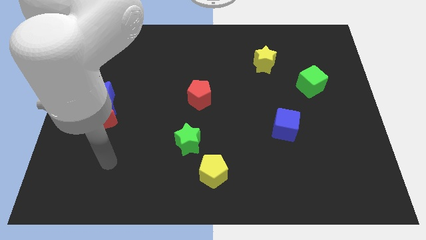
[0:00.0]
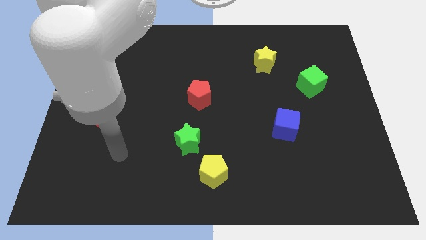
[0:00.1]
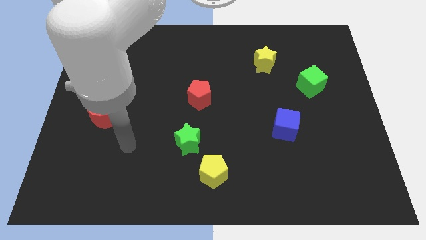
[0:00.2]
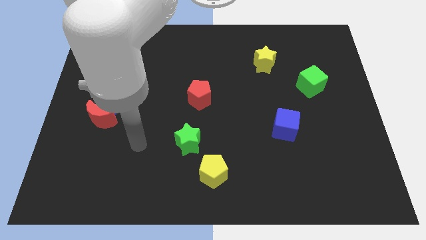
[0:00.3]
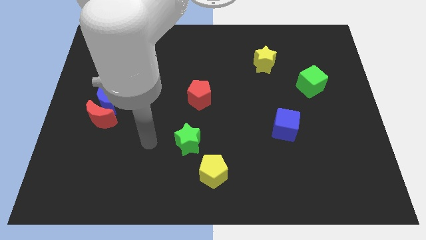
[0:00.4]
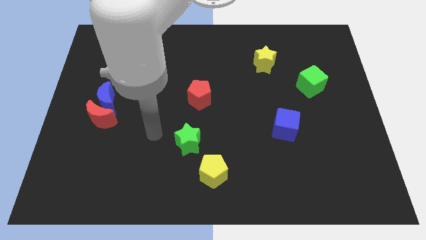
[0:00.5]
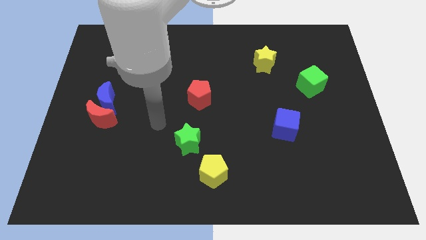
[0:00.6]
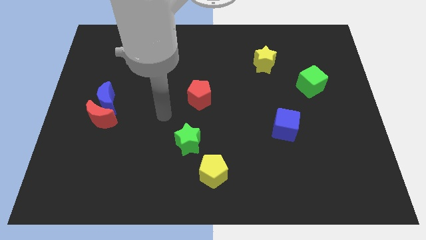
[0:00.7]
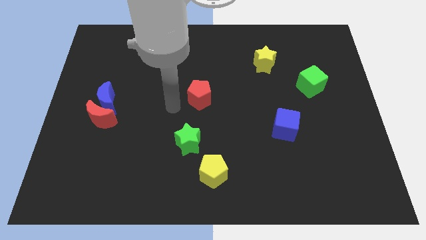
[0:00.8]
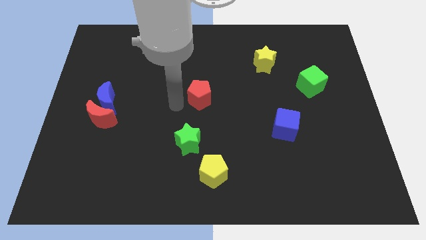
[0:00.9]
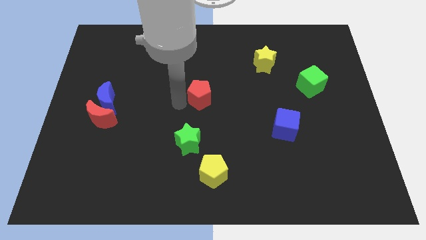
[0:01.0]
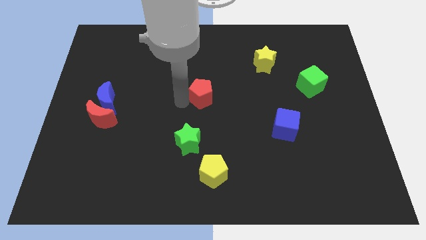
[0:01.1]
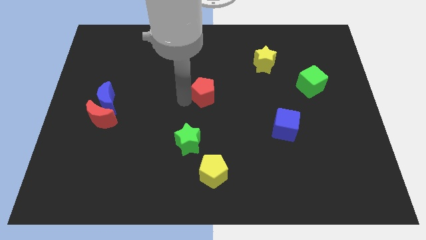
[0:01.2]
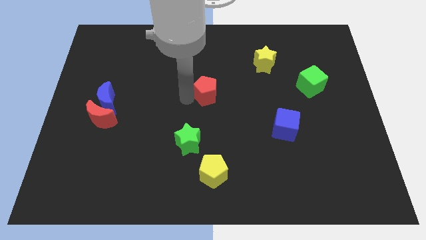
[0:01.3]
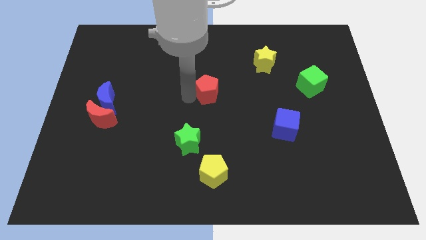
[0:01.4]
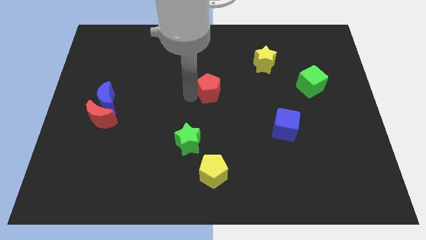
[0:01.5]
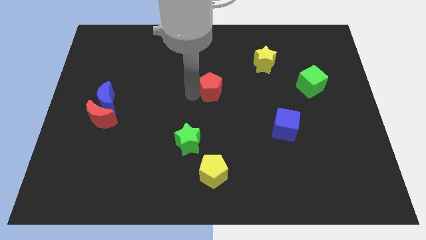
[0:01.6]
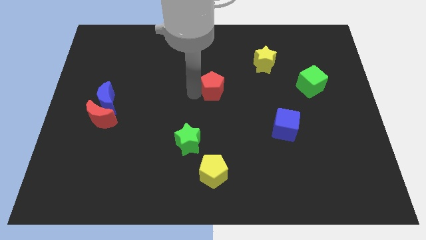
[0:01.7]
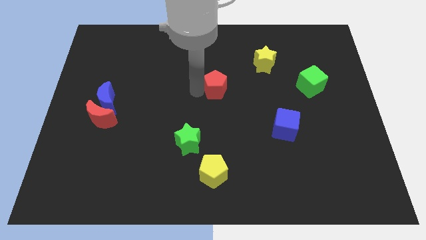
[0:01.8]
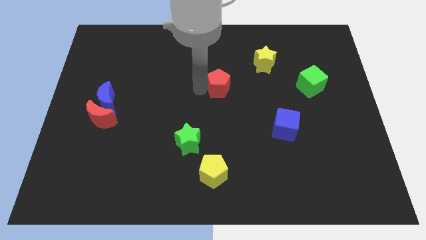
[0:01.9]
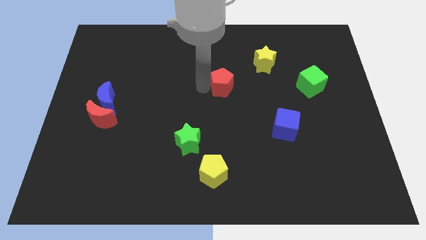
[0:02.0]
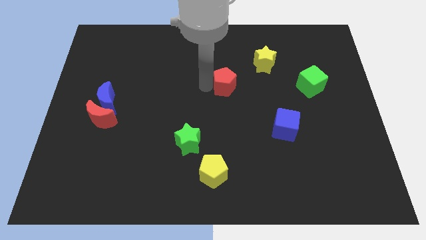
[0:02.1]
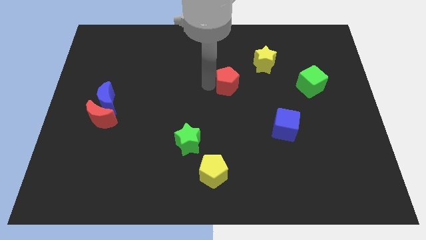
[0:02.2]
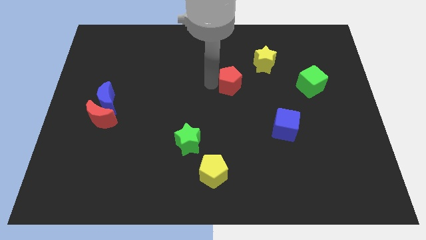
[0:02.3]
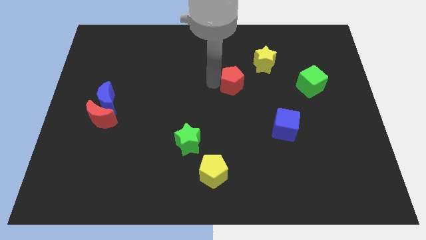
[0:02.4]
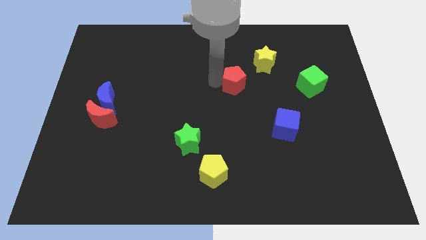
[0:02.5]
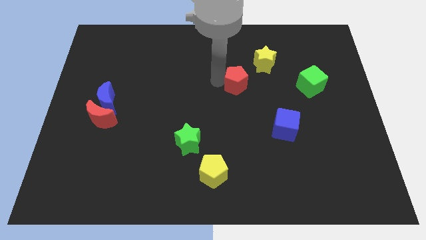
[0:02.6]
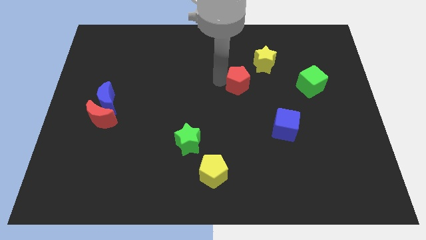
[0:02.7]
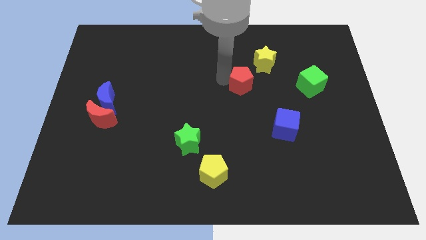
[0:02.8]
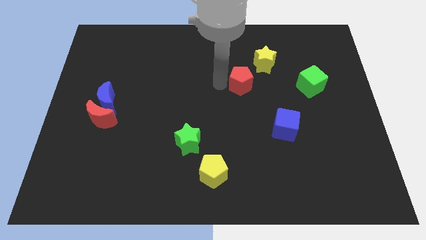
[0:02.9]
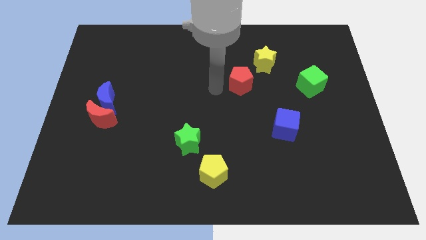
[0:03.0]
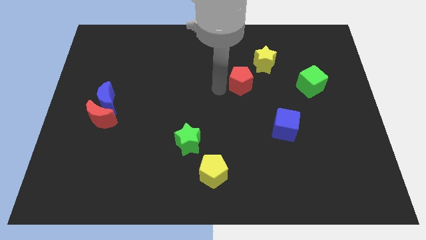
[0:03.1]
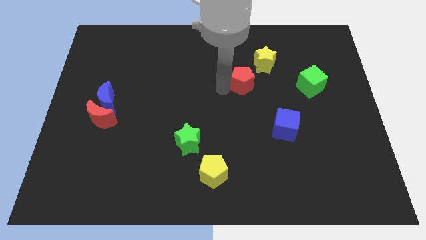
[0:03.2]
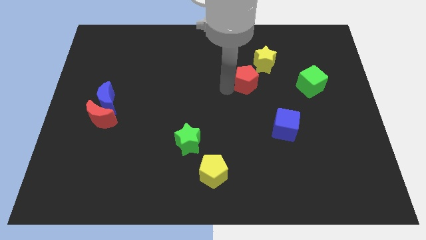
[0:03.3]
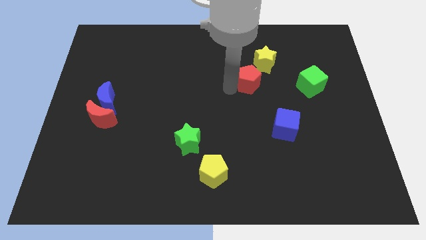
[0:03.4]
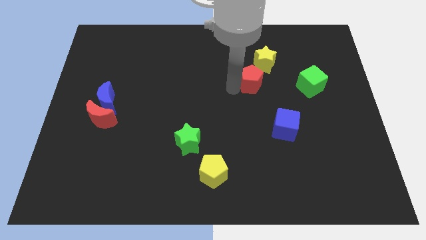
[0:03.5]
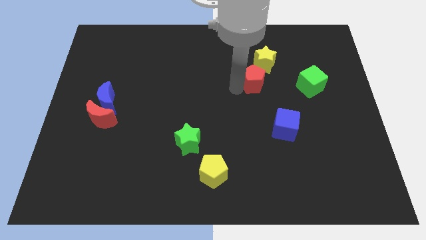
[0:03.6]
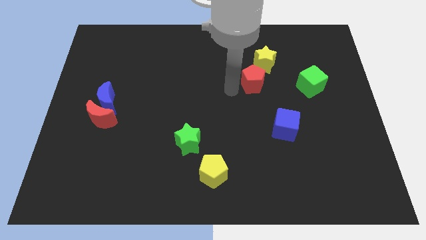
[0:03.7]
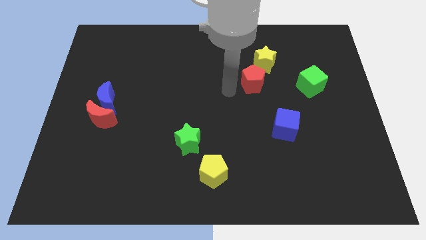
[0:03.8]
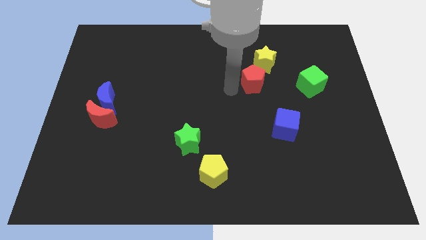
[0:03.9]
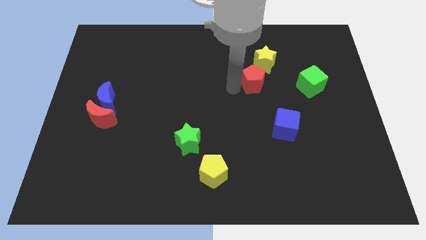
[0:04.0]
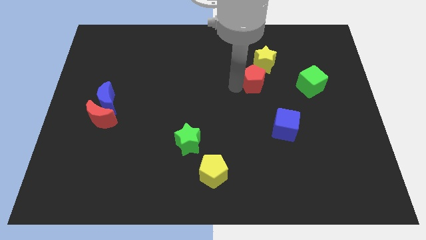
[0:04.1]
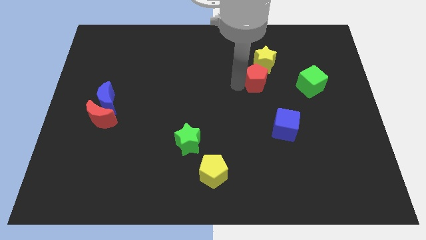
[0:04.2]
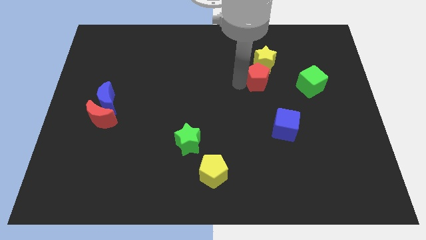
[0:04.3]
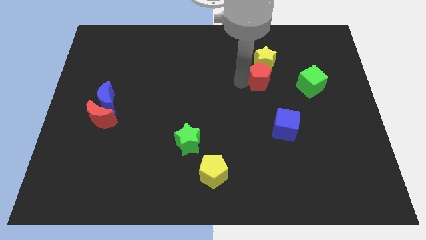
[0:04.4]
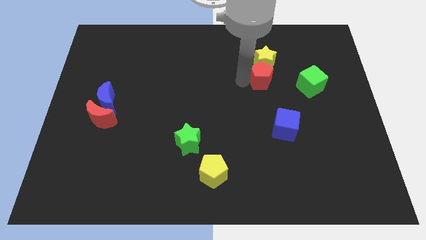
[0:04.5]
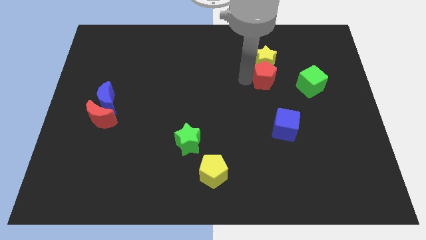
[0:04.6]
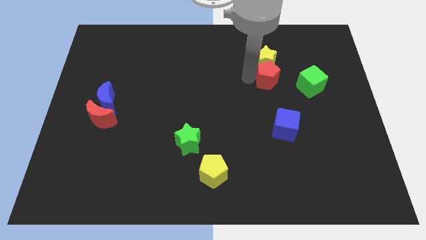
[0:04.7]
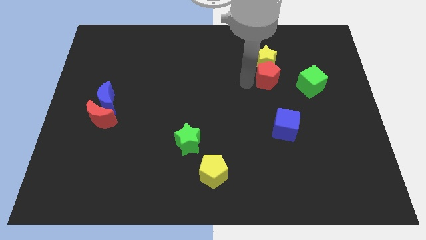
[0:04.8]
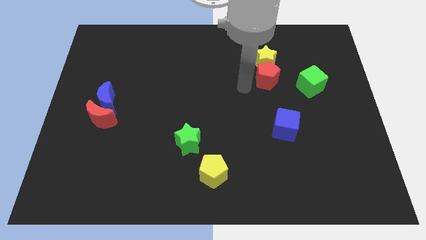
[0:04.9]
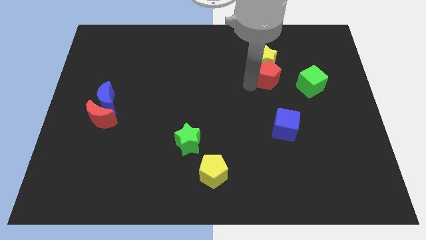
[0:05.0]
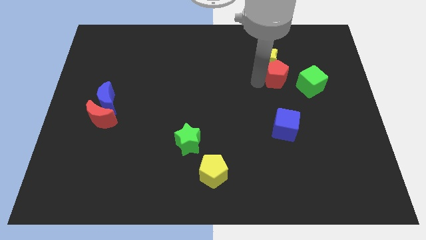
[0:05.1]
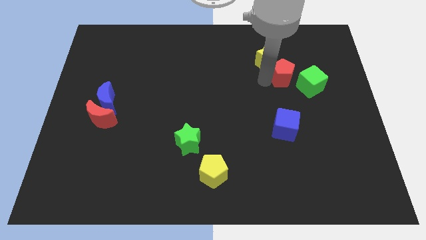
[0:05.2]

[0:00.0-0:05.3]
push the red pentagon to the right of the yellow star

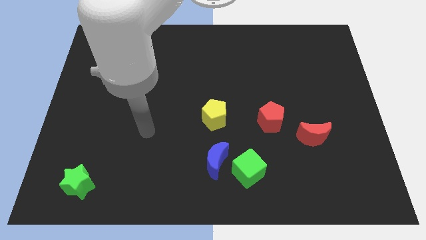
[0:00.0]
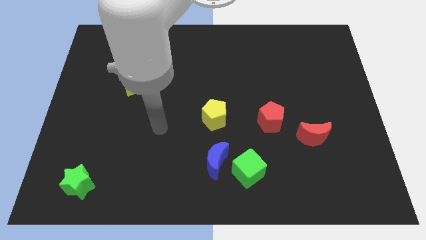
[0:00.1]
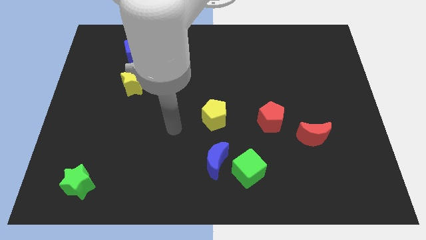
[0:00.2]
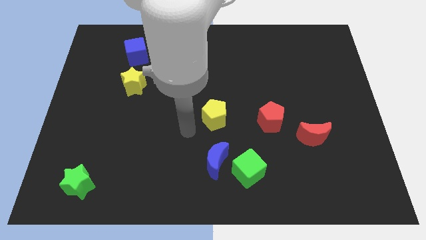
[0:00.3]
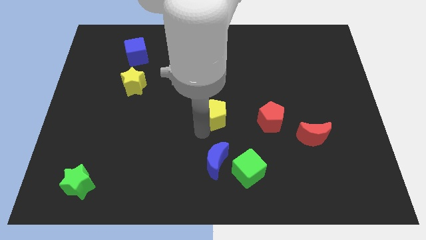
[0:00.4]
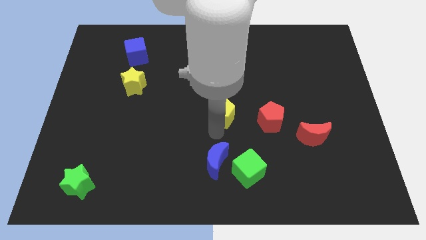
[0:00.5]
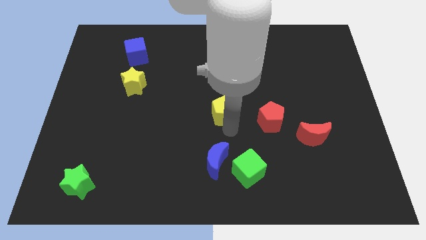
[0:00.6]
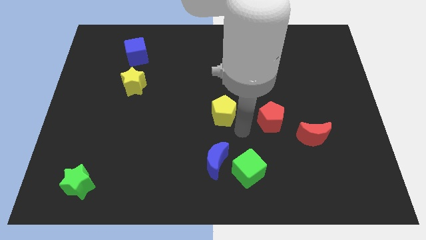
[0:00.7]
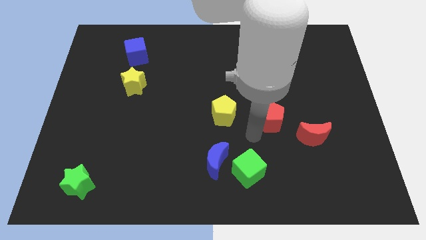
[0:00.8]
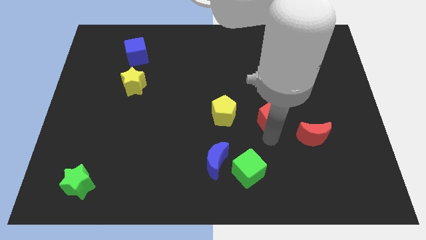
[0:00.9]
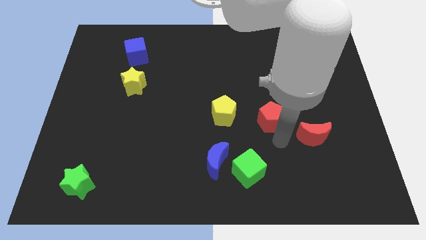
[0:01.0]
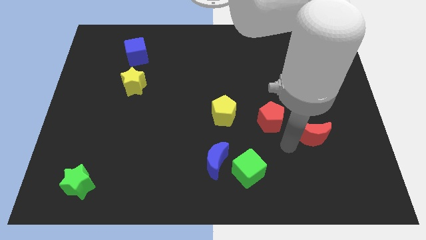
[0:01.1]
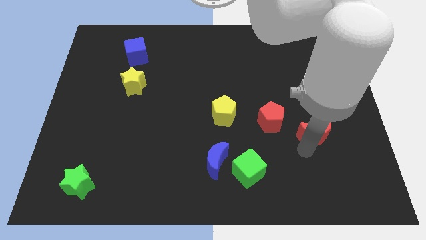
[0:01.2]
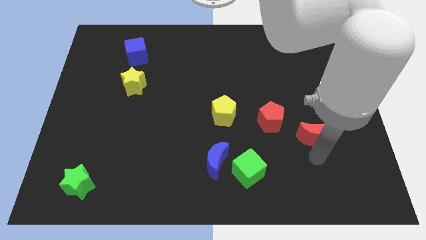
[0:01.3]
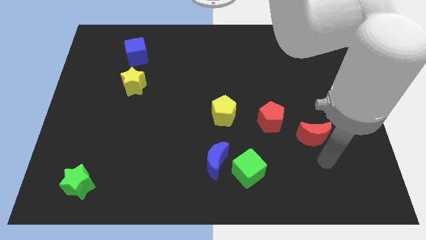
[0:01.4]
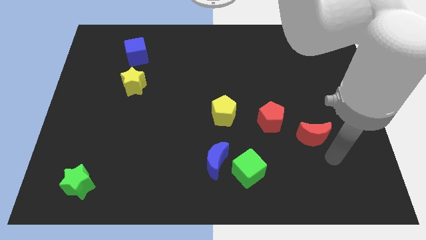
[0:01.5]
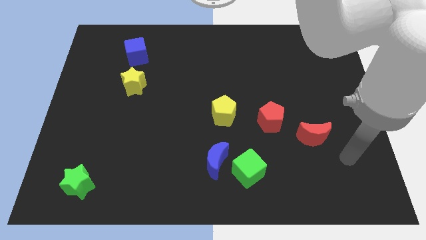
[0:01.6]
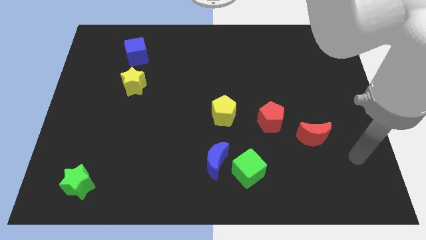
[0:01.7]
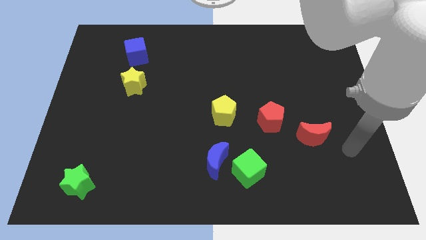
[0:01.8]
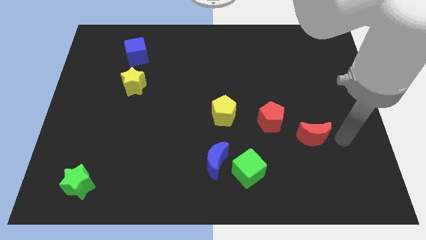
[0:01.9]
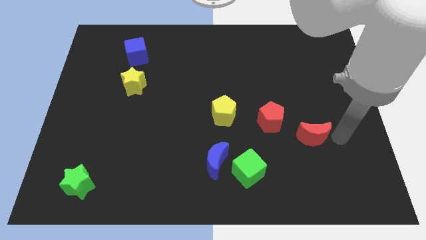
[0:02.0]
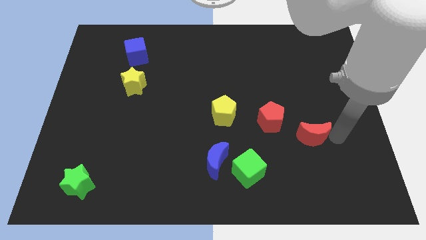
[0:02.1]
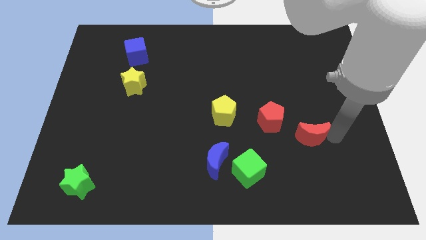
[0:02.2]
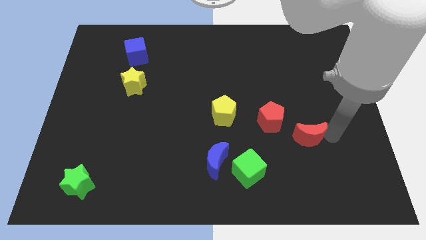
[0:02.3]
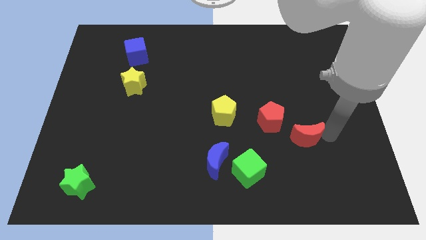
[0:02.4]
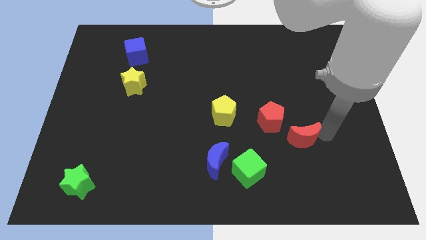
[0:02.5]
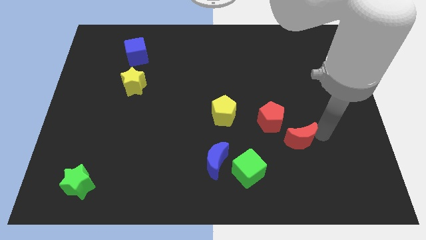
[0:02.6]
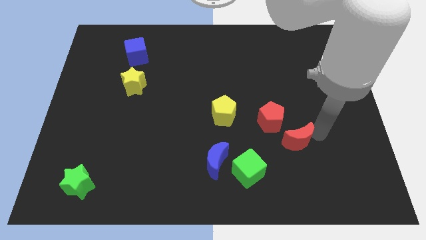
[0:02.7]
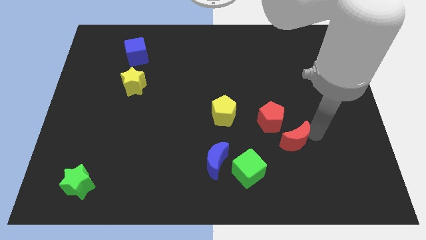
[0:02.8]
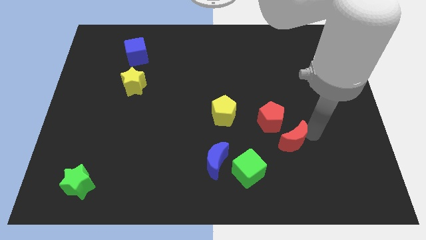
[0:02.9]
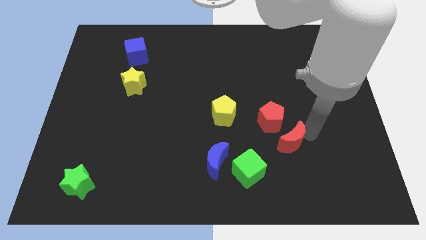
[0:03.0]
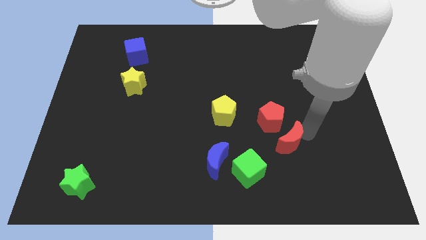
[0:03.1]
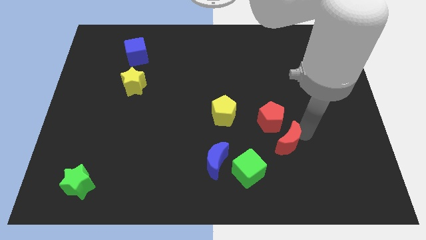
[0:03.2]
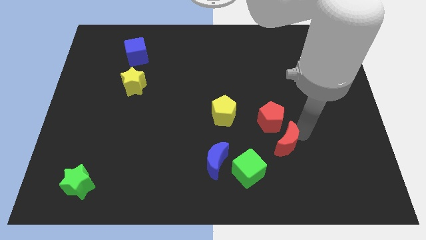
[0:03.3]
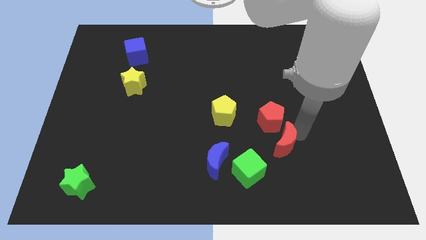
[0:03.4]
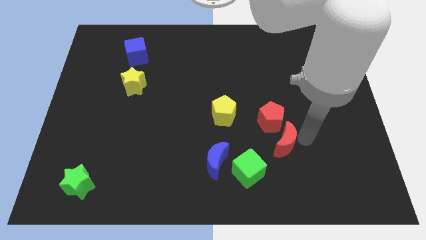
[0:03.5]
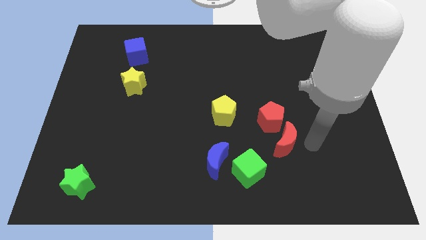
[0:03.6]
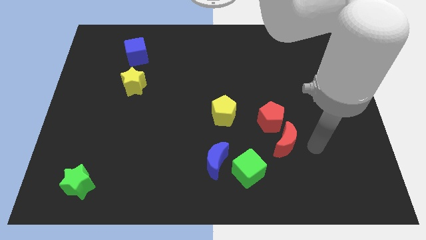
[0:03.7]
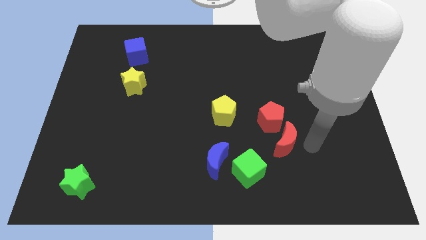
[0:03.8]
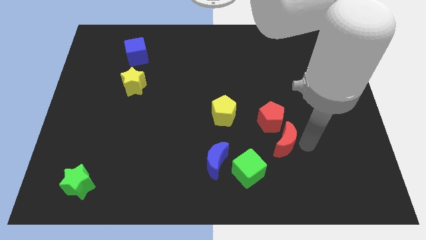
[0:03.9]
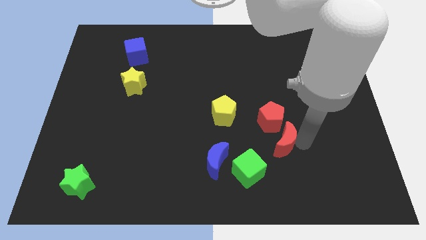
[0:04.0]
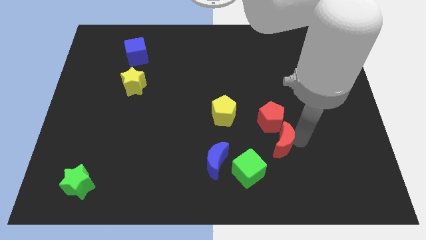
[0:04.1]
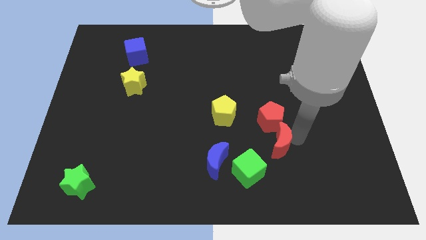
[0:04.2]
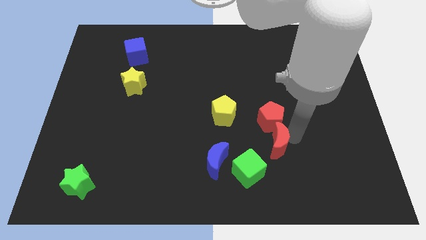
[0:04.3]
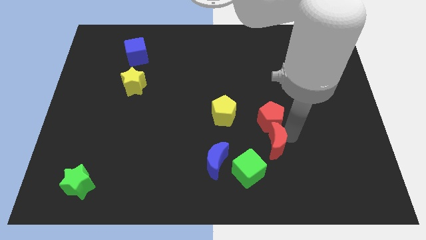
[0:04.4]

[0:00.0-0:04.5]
move the red moon to the bottom left of the red pentagon
